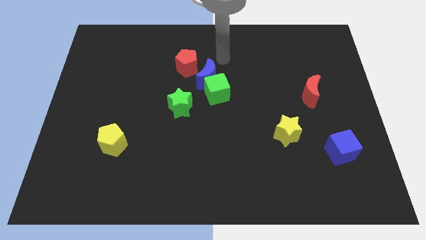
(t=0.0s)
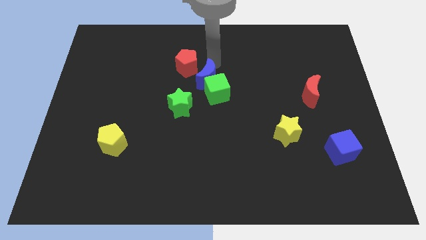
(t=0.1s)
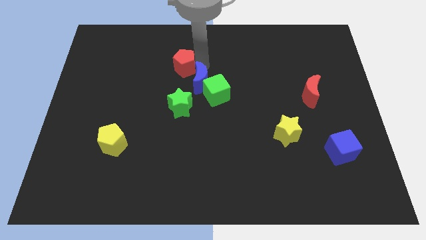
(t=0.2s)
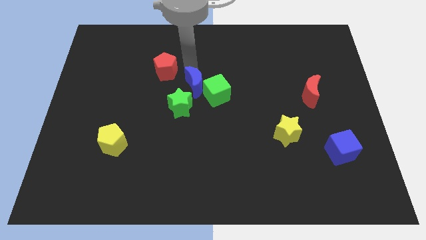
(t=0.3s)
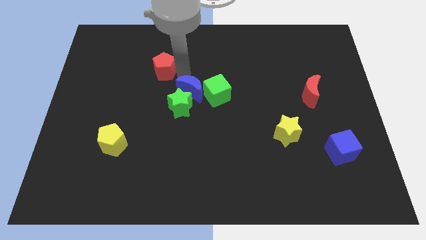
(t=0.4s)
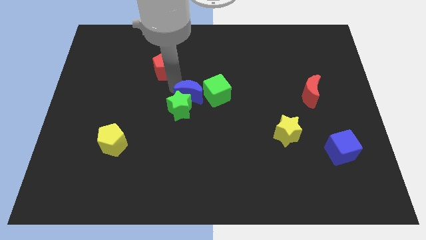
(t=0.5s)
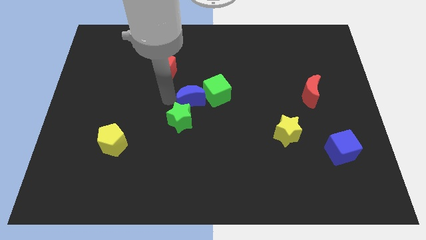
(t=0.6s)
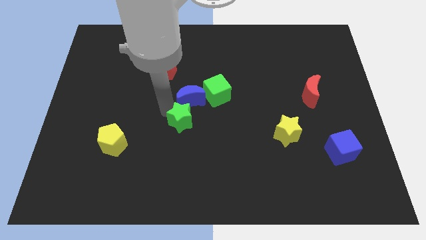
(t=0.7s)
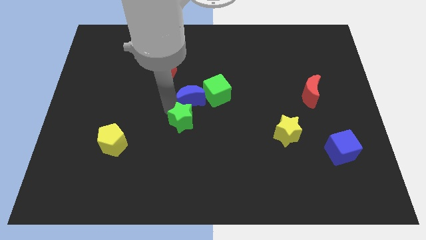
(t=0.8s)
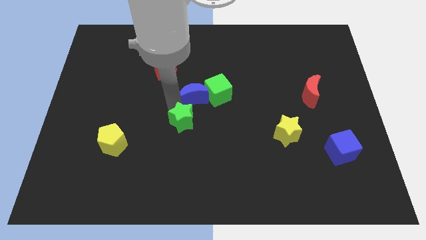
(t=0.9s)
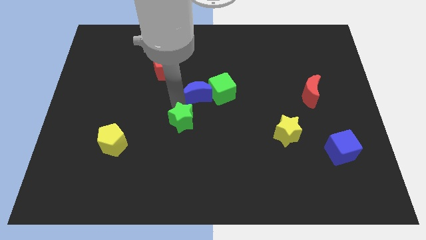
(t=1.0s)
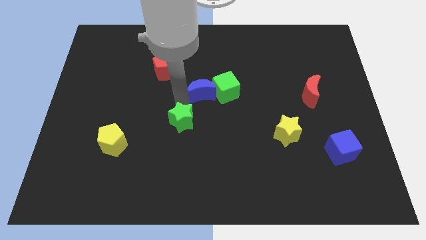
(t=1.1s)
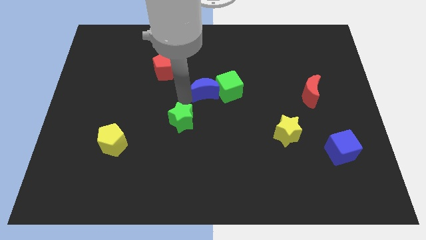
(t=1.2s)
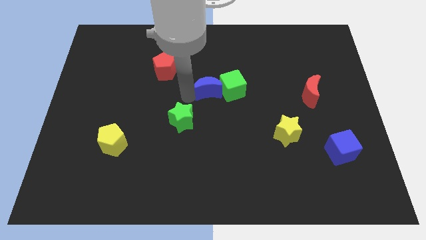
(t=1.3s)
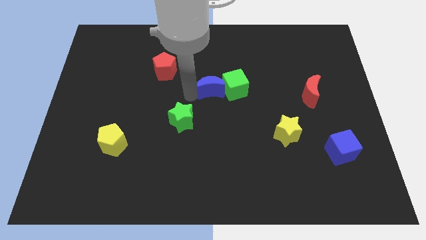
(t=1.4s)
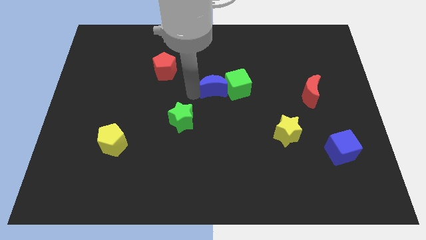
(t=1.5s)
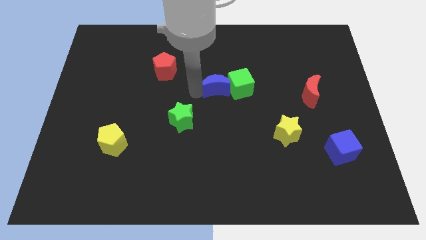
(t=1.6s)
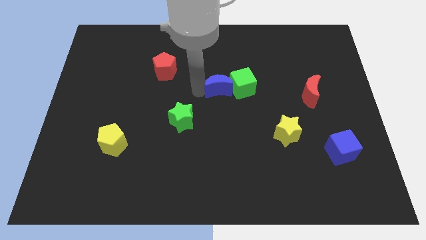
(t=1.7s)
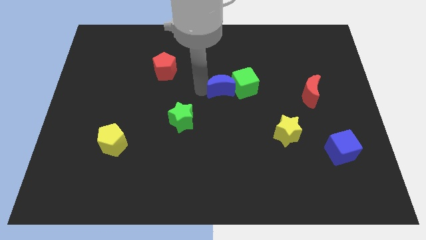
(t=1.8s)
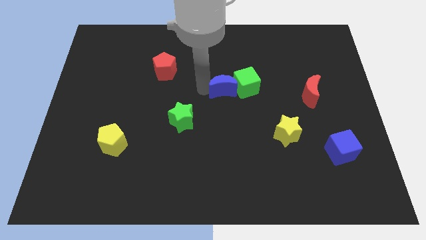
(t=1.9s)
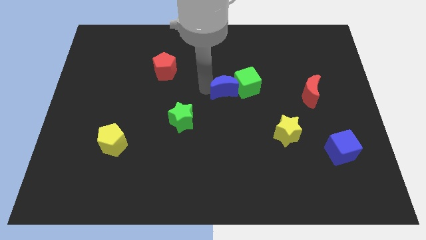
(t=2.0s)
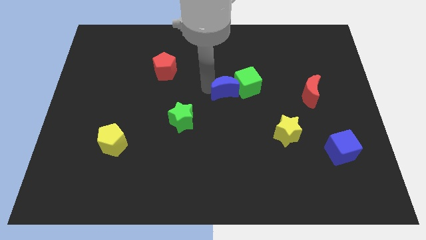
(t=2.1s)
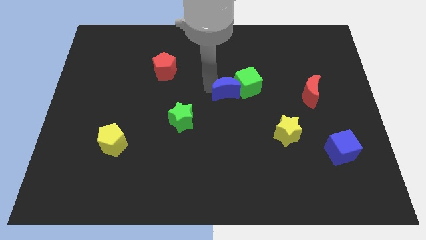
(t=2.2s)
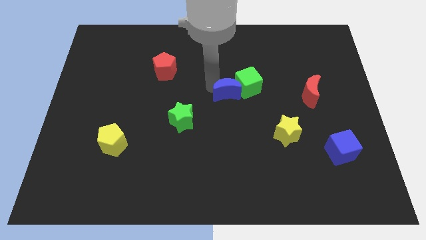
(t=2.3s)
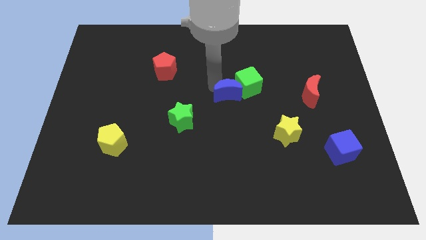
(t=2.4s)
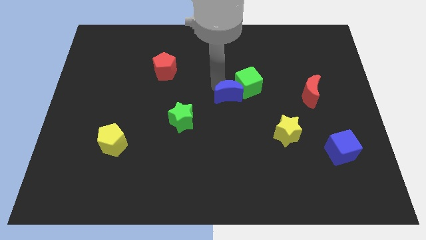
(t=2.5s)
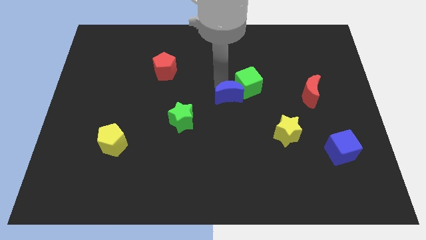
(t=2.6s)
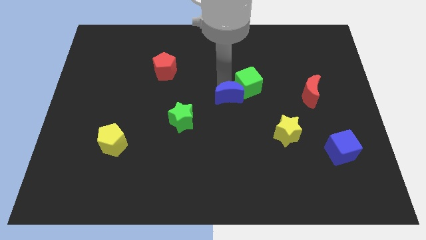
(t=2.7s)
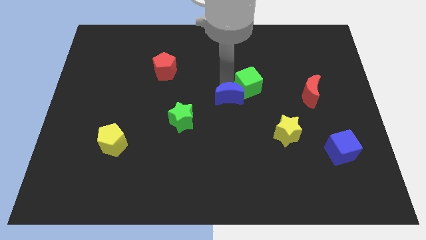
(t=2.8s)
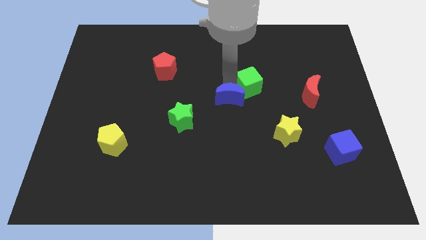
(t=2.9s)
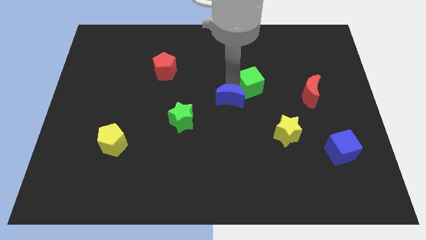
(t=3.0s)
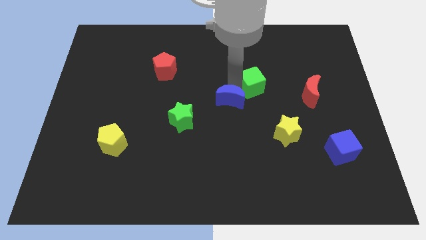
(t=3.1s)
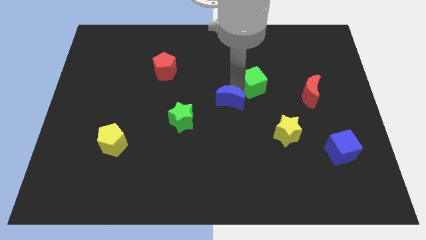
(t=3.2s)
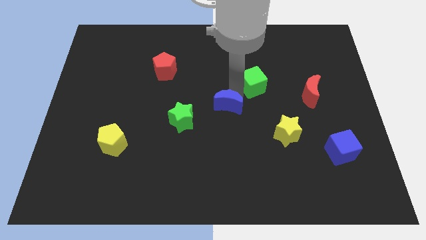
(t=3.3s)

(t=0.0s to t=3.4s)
separate the blue moon from the green cube and red pentagon

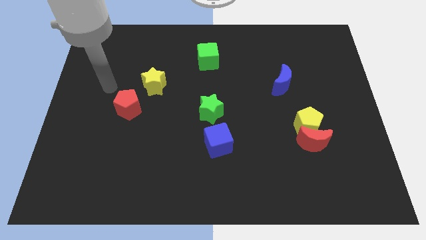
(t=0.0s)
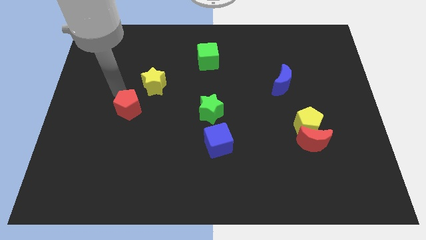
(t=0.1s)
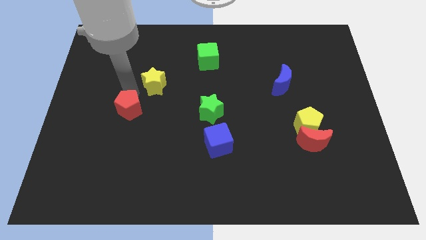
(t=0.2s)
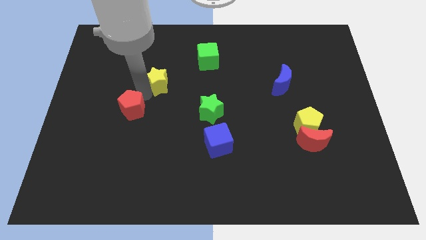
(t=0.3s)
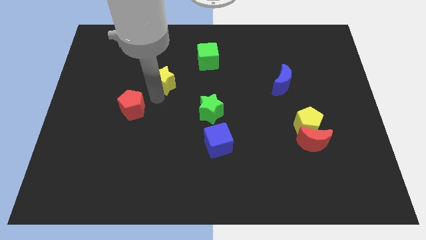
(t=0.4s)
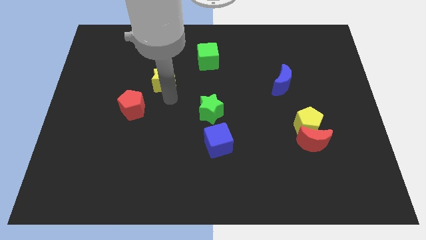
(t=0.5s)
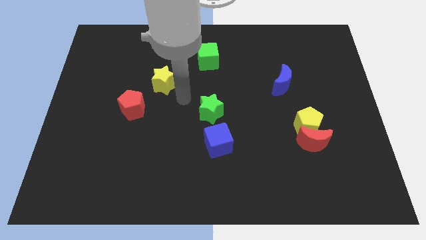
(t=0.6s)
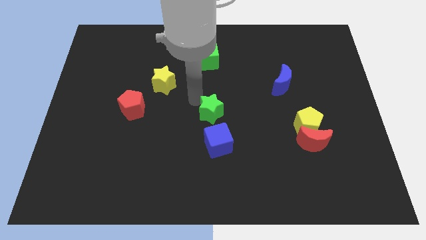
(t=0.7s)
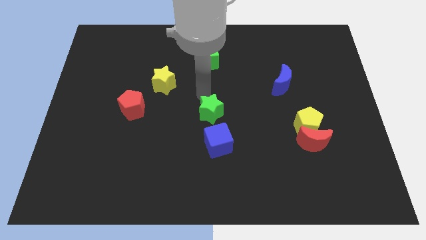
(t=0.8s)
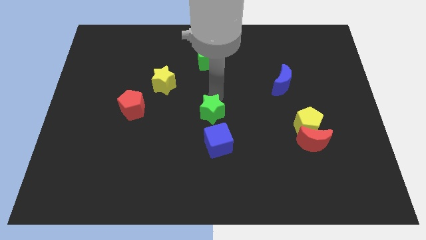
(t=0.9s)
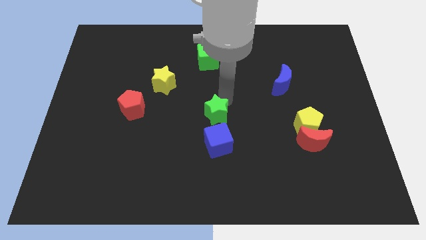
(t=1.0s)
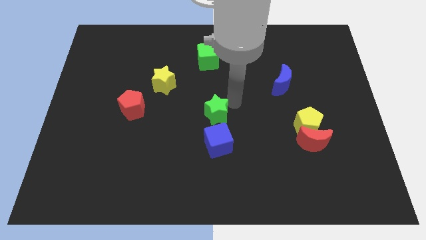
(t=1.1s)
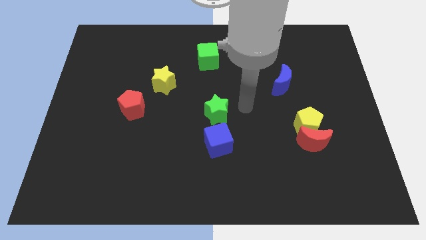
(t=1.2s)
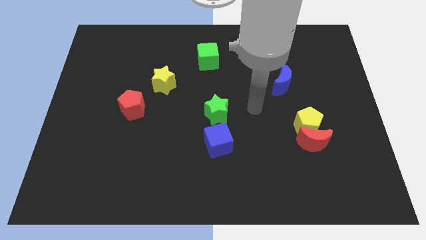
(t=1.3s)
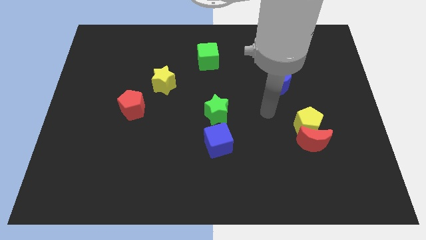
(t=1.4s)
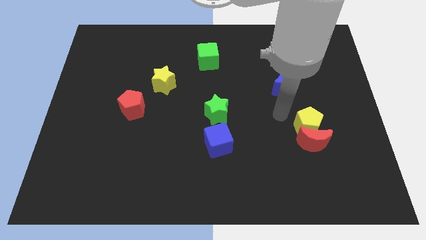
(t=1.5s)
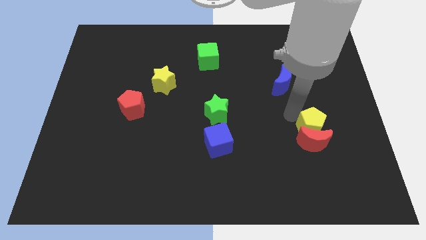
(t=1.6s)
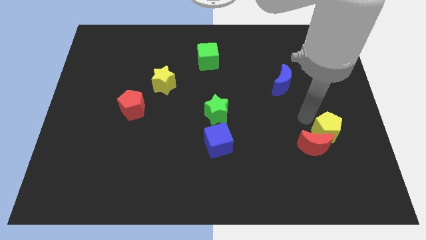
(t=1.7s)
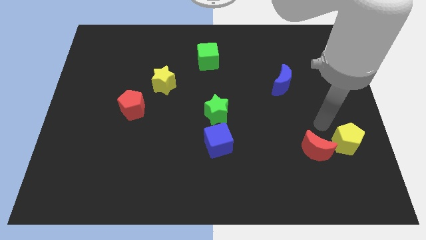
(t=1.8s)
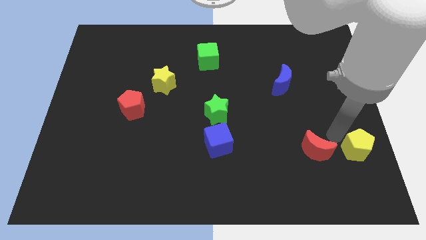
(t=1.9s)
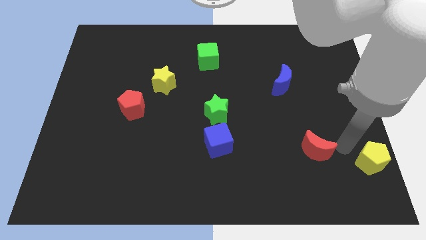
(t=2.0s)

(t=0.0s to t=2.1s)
move the red moon away from the yellow pentagon

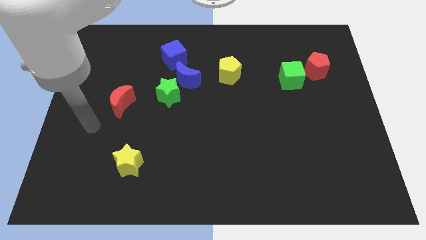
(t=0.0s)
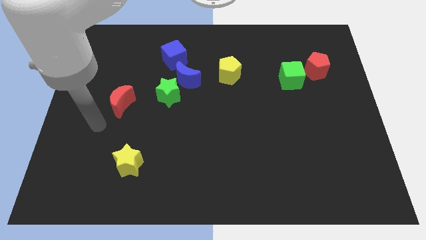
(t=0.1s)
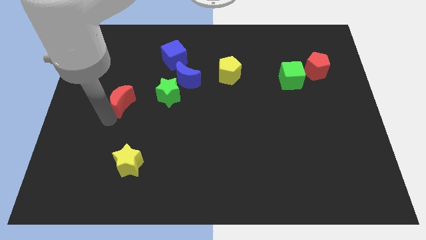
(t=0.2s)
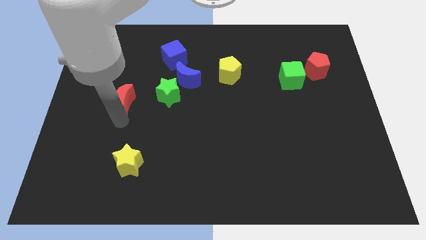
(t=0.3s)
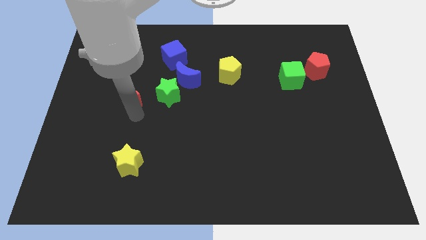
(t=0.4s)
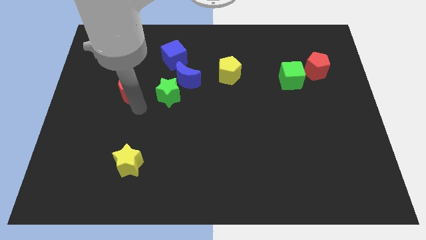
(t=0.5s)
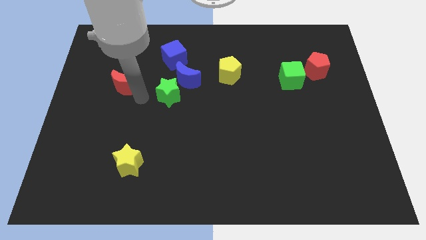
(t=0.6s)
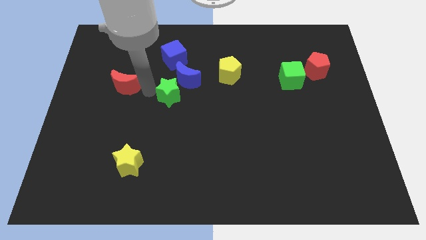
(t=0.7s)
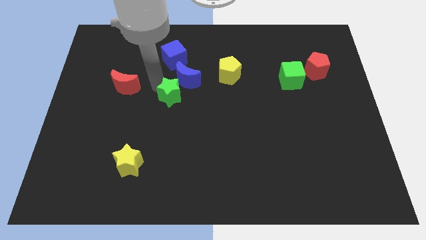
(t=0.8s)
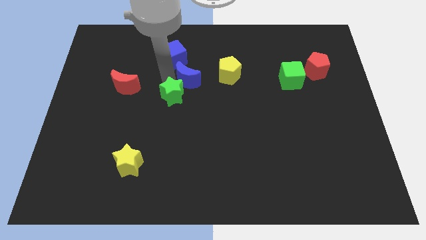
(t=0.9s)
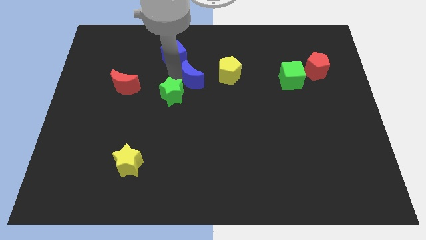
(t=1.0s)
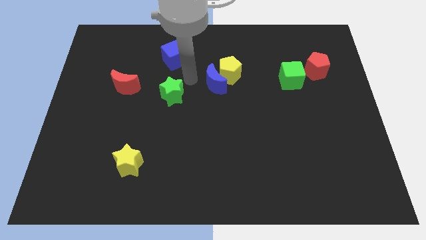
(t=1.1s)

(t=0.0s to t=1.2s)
pull the green star apart from the blue moon

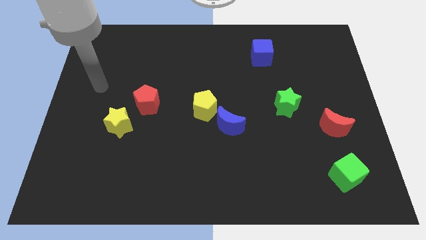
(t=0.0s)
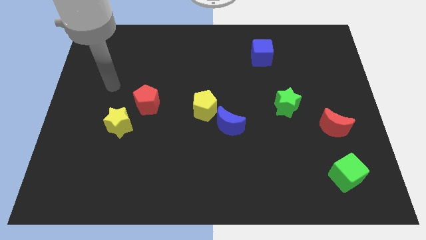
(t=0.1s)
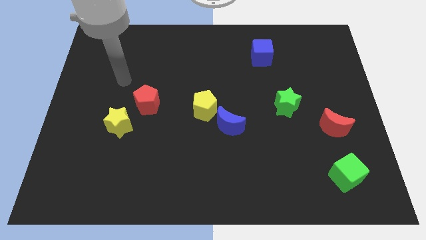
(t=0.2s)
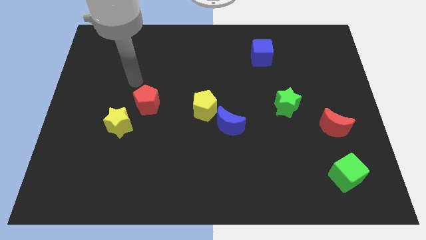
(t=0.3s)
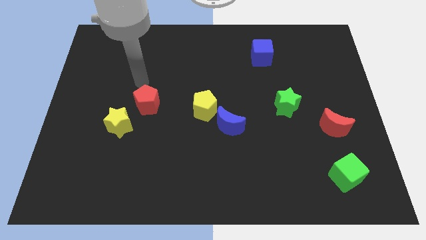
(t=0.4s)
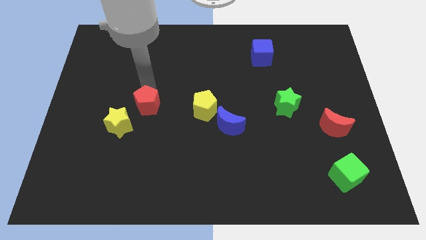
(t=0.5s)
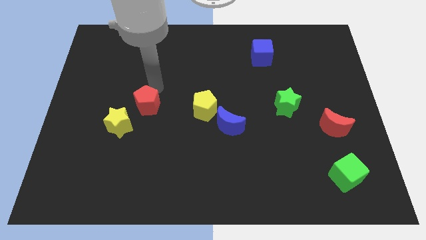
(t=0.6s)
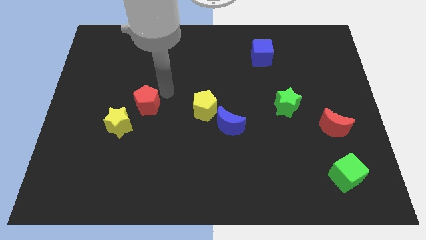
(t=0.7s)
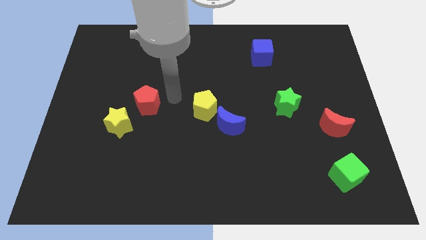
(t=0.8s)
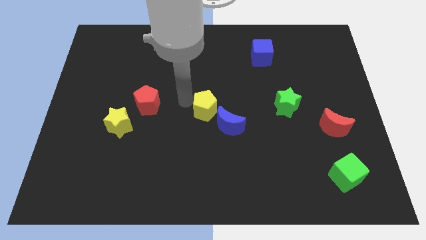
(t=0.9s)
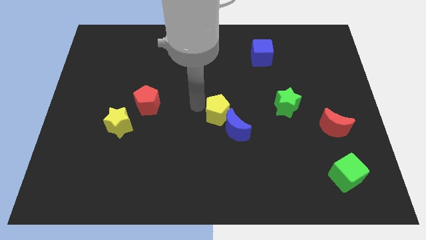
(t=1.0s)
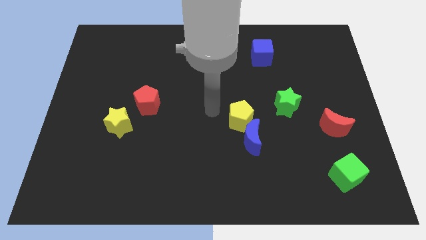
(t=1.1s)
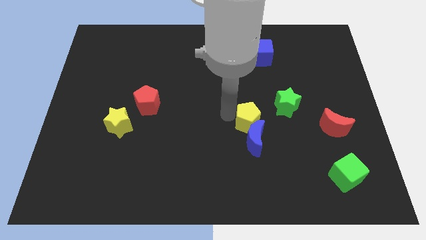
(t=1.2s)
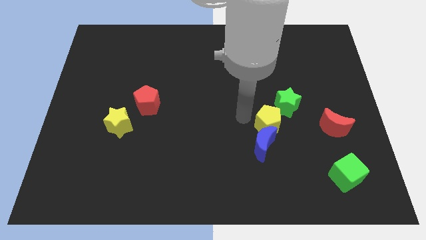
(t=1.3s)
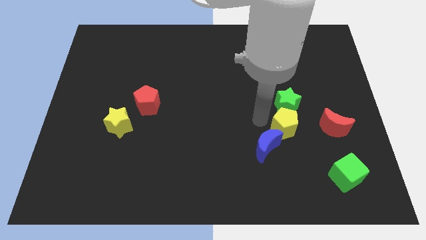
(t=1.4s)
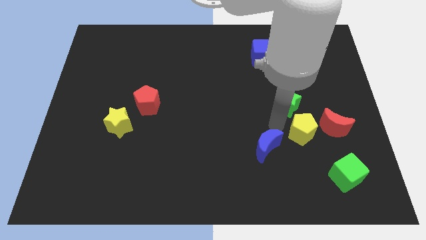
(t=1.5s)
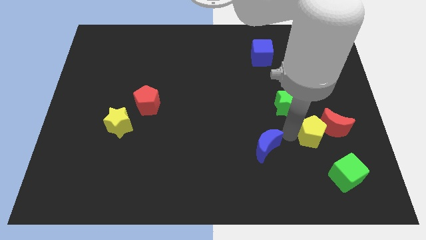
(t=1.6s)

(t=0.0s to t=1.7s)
pull the blue moon apart from the yellow pentagon

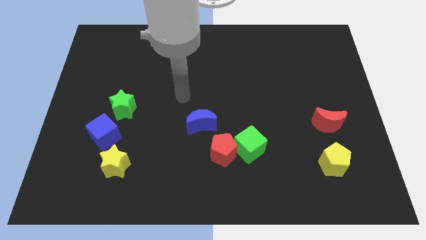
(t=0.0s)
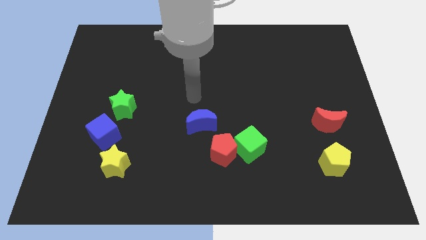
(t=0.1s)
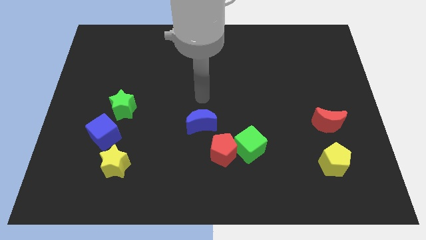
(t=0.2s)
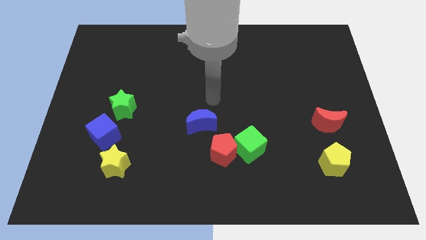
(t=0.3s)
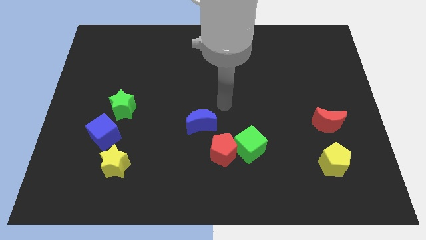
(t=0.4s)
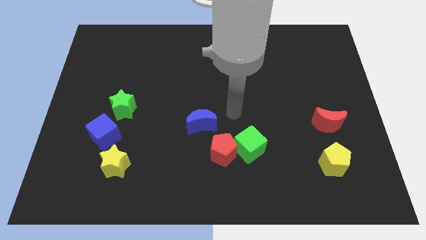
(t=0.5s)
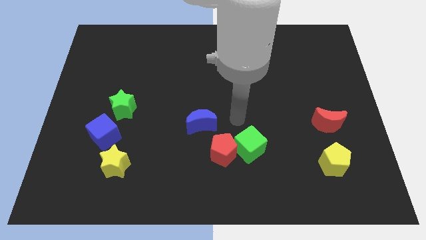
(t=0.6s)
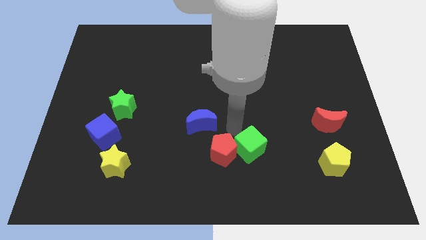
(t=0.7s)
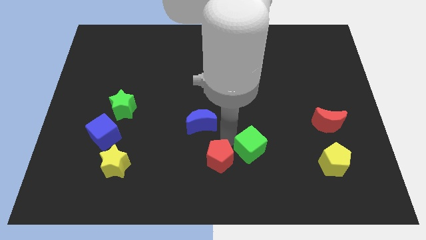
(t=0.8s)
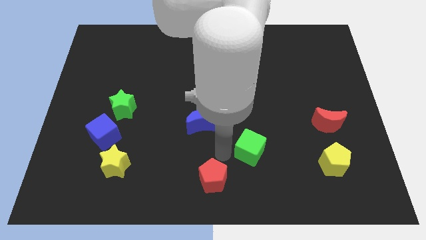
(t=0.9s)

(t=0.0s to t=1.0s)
pull the green cube apart from the red pentagon
